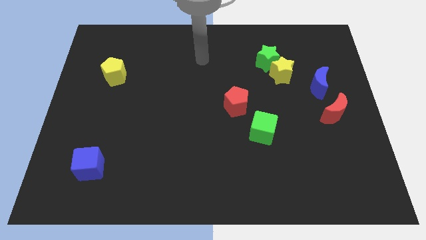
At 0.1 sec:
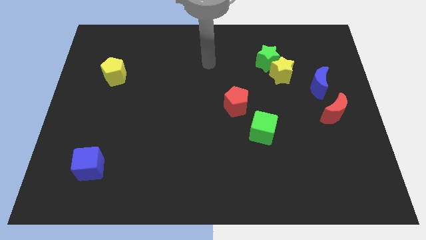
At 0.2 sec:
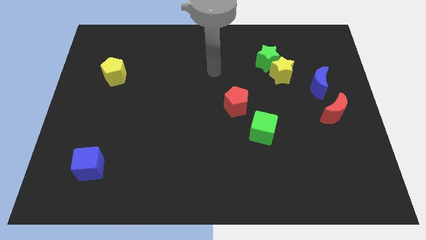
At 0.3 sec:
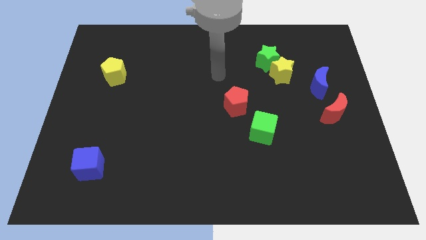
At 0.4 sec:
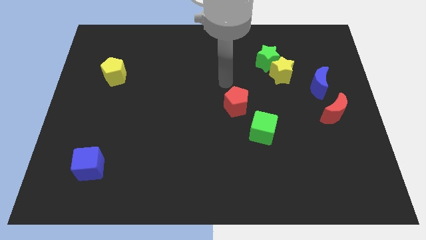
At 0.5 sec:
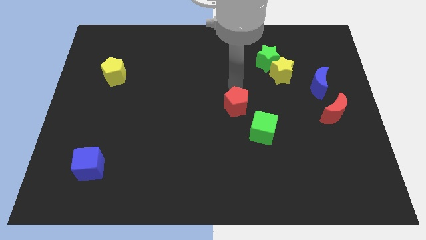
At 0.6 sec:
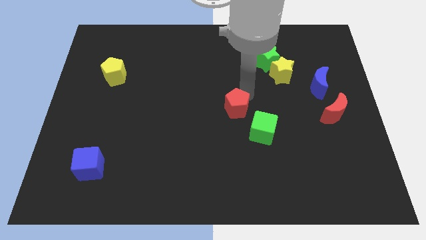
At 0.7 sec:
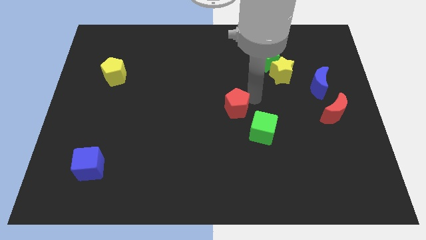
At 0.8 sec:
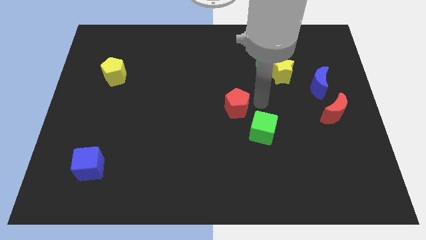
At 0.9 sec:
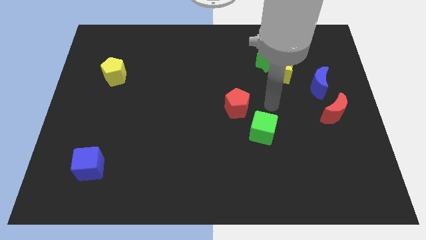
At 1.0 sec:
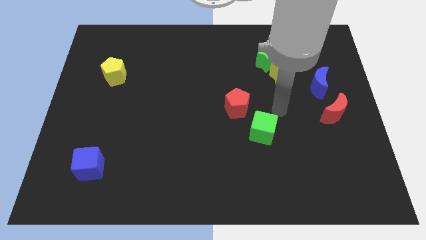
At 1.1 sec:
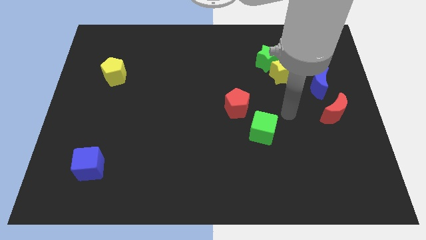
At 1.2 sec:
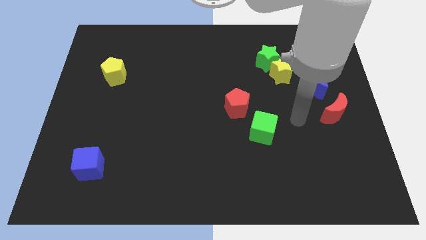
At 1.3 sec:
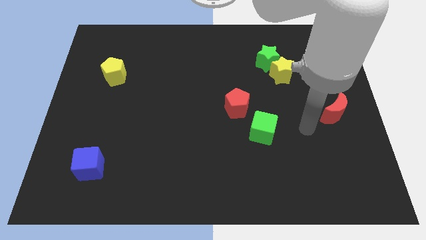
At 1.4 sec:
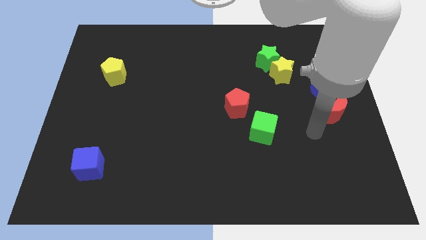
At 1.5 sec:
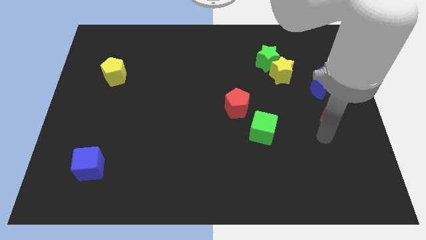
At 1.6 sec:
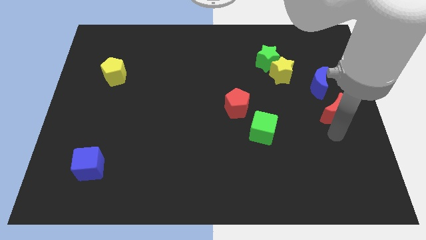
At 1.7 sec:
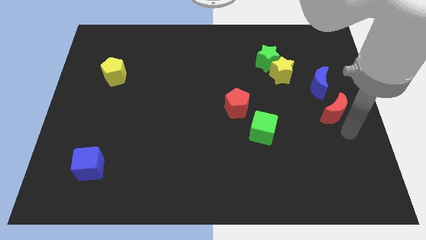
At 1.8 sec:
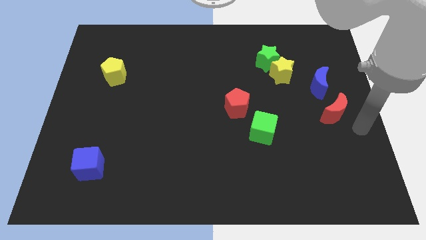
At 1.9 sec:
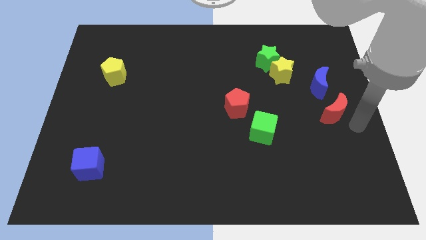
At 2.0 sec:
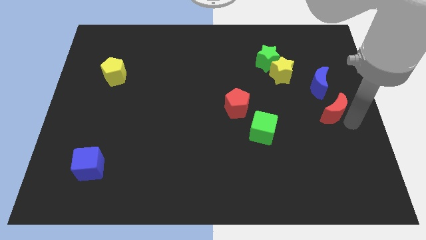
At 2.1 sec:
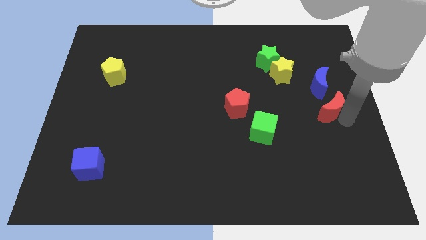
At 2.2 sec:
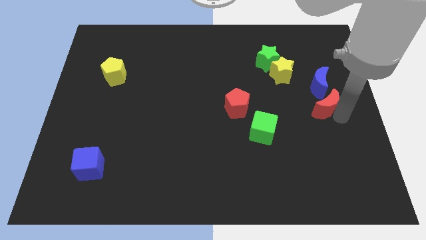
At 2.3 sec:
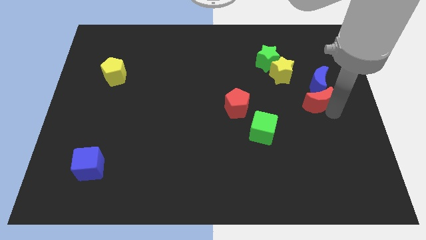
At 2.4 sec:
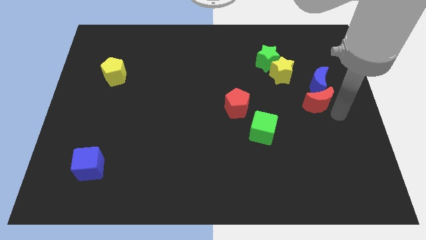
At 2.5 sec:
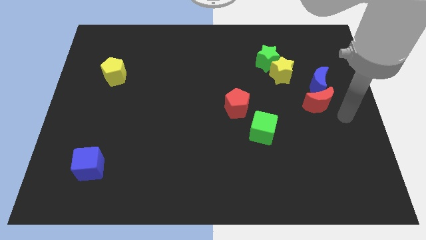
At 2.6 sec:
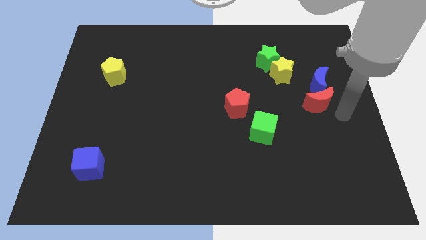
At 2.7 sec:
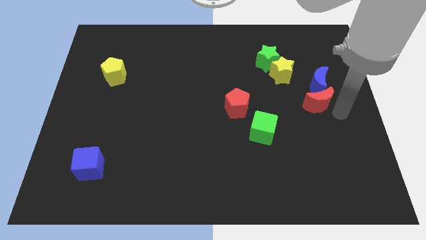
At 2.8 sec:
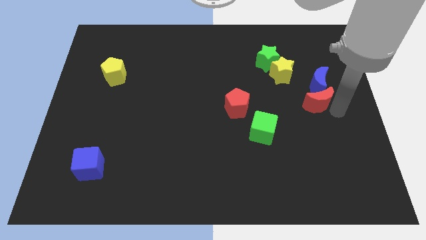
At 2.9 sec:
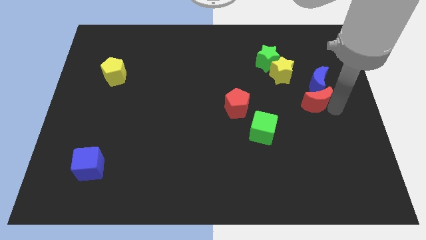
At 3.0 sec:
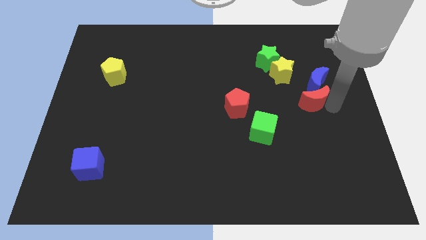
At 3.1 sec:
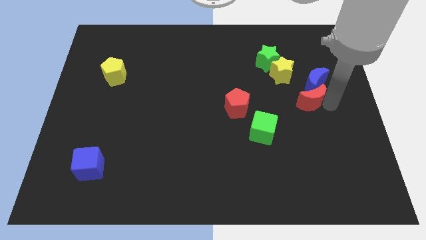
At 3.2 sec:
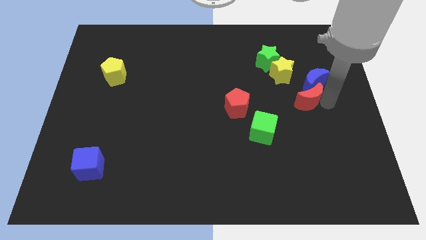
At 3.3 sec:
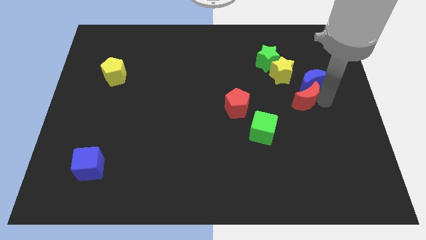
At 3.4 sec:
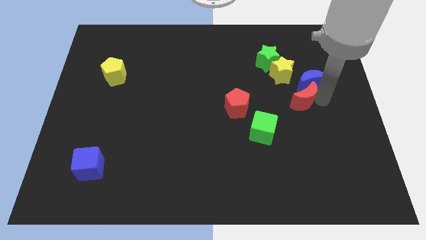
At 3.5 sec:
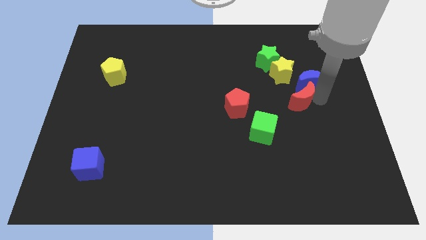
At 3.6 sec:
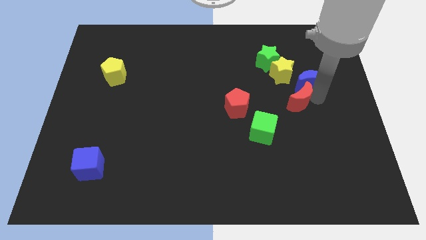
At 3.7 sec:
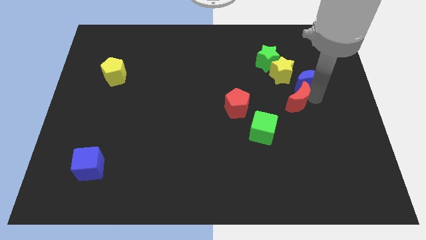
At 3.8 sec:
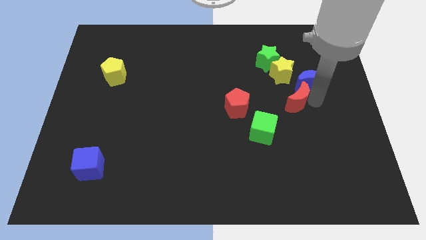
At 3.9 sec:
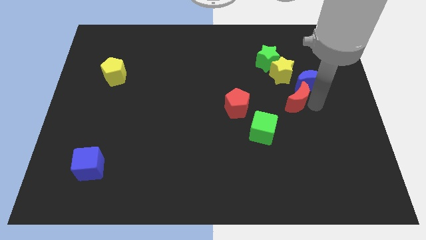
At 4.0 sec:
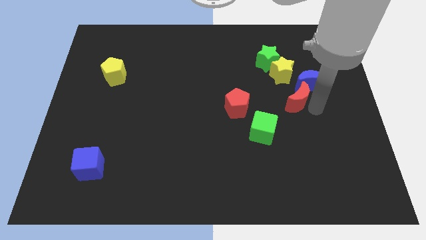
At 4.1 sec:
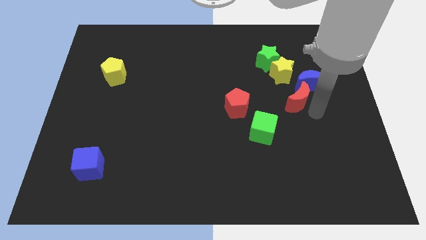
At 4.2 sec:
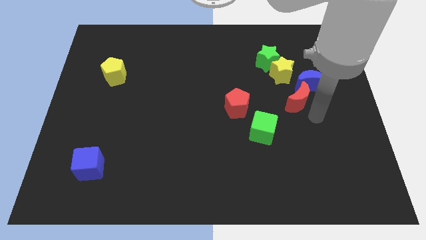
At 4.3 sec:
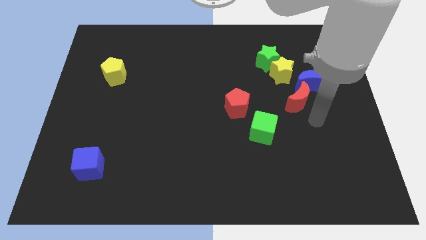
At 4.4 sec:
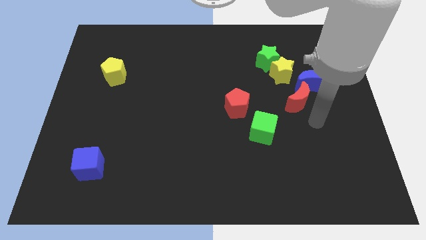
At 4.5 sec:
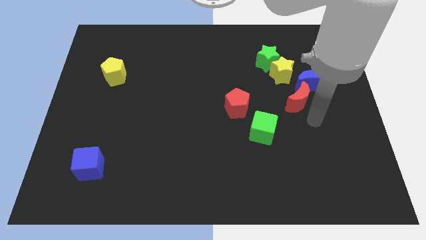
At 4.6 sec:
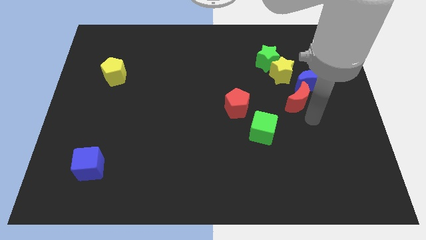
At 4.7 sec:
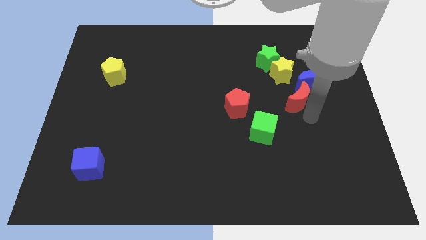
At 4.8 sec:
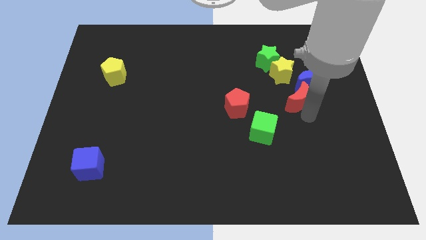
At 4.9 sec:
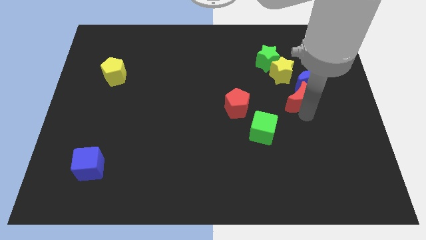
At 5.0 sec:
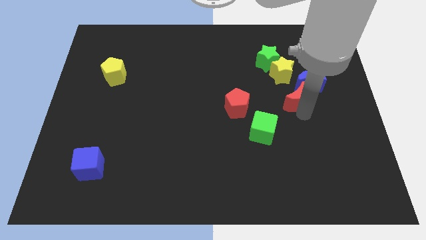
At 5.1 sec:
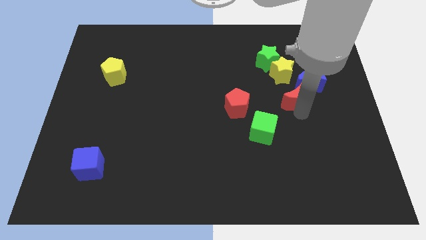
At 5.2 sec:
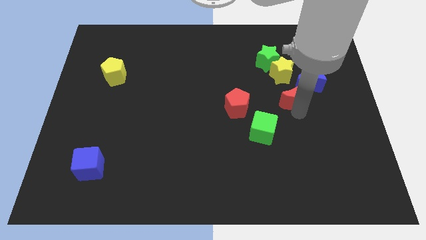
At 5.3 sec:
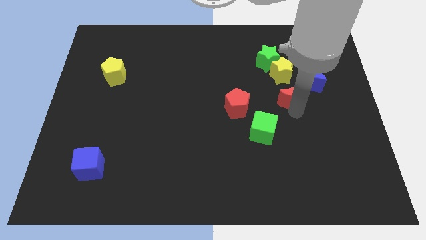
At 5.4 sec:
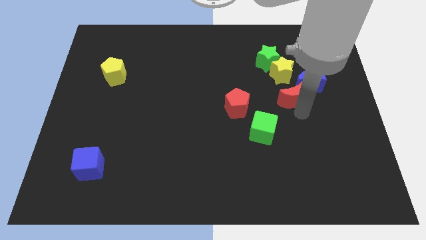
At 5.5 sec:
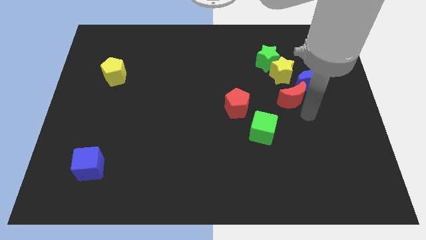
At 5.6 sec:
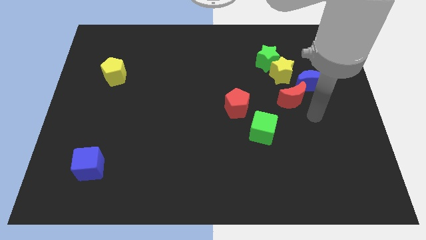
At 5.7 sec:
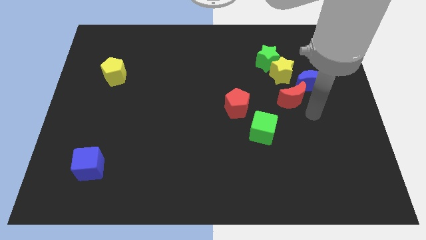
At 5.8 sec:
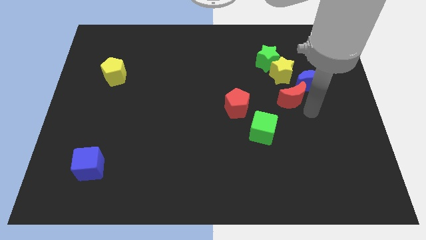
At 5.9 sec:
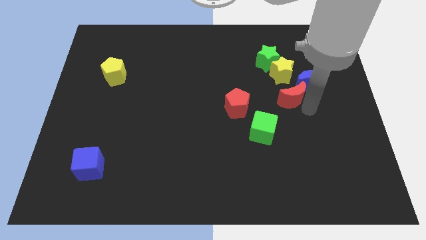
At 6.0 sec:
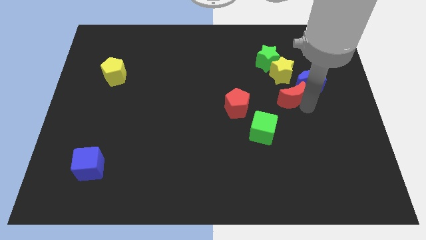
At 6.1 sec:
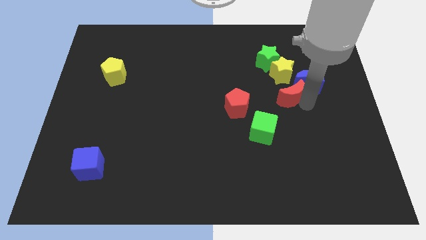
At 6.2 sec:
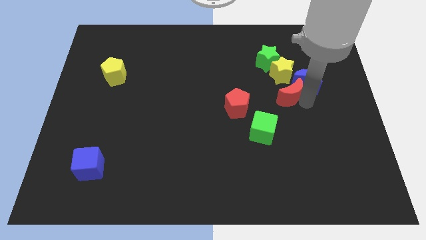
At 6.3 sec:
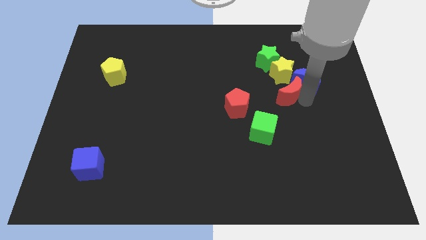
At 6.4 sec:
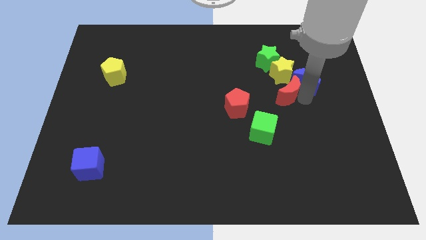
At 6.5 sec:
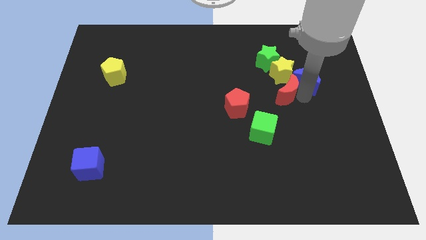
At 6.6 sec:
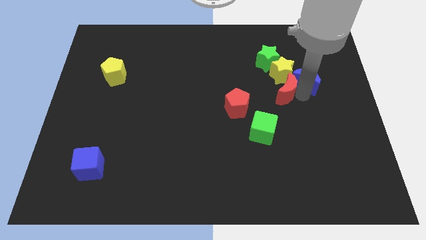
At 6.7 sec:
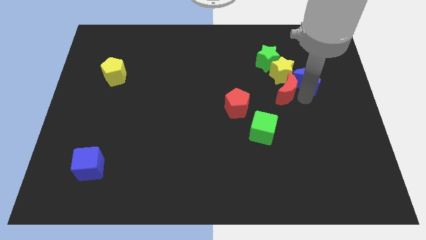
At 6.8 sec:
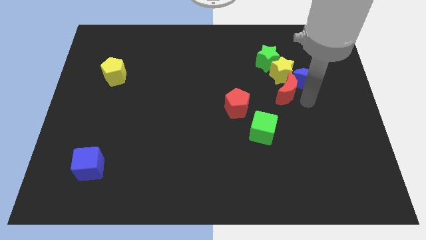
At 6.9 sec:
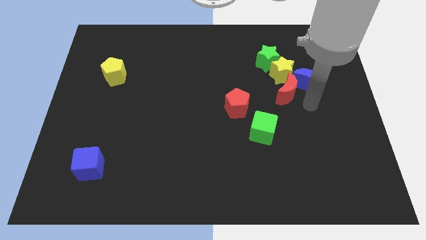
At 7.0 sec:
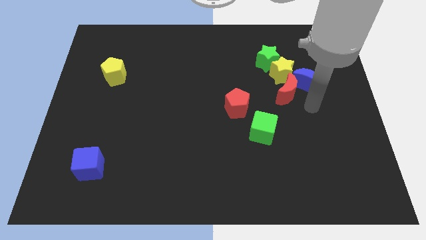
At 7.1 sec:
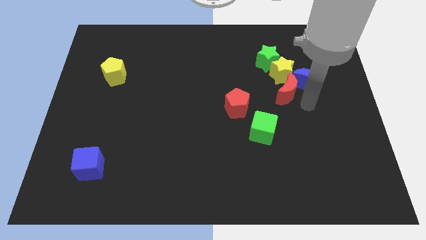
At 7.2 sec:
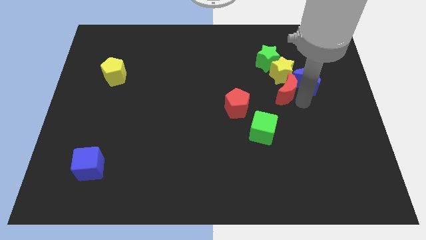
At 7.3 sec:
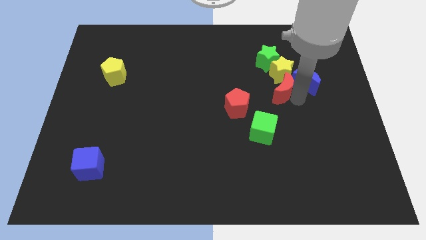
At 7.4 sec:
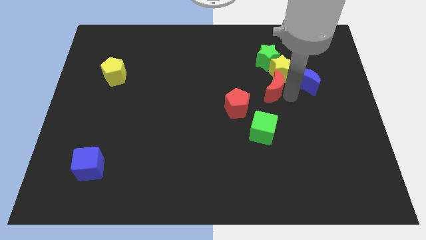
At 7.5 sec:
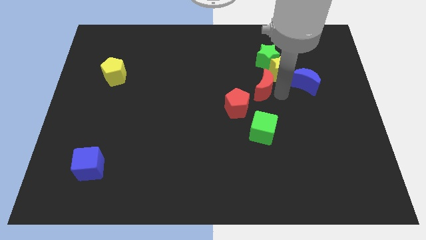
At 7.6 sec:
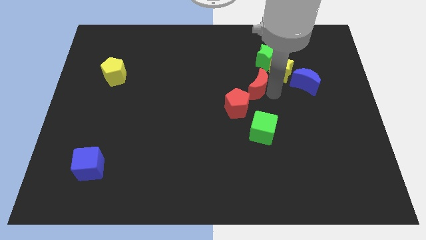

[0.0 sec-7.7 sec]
slide the red moon to the bottom left of the green star
